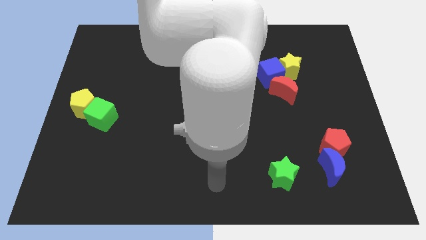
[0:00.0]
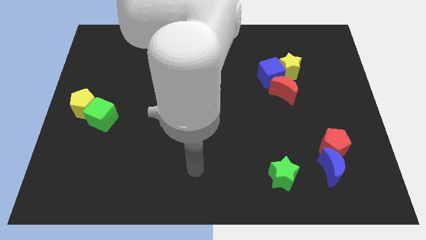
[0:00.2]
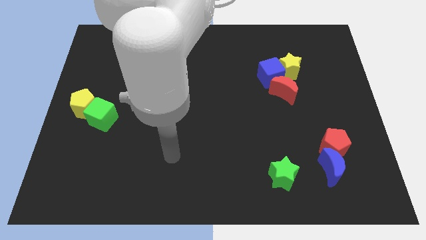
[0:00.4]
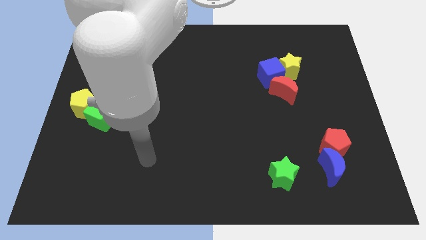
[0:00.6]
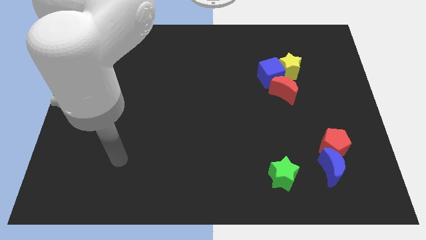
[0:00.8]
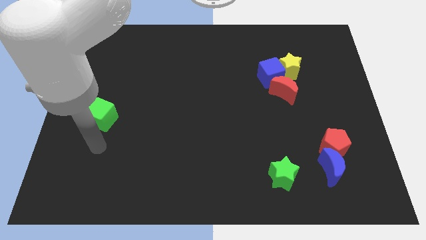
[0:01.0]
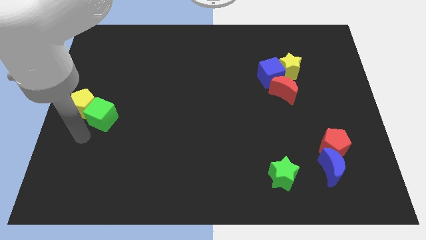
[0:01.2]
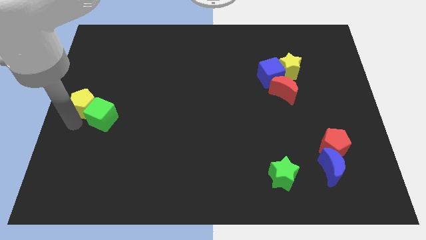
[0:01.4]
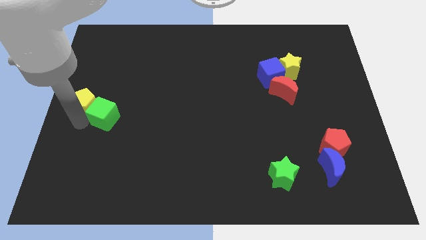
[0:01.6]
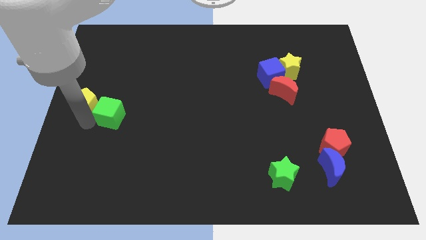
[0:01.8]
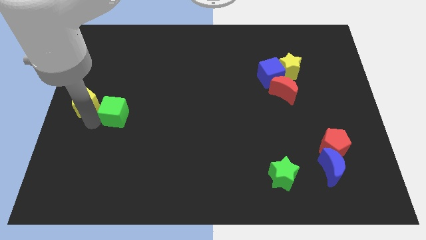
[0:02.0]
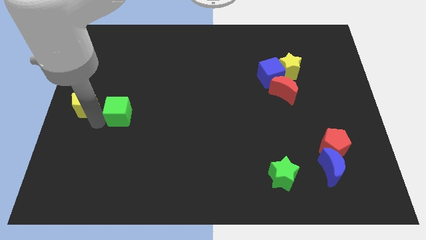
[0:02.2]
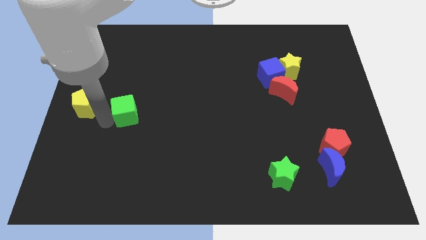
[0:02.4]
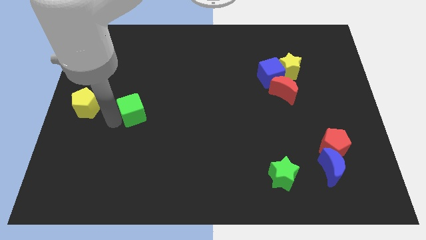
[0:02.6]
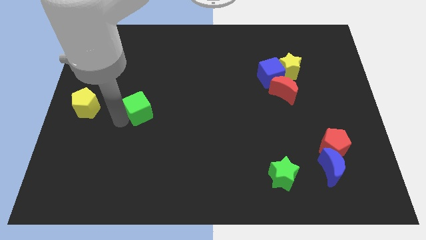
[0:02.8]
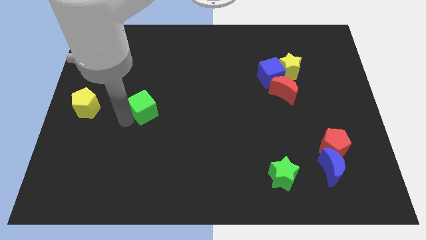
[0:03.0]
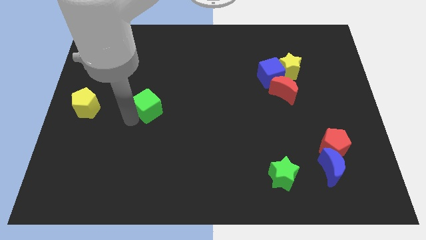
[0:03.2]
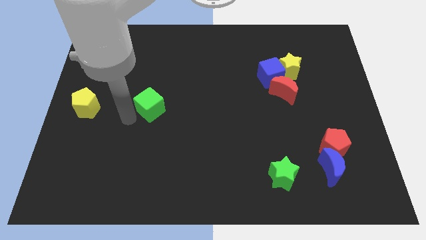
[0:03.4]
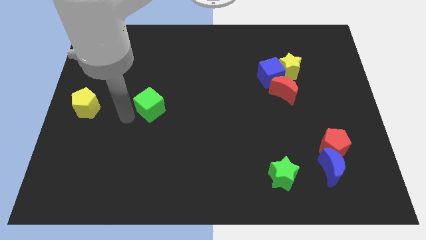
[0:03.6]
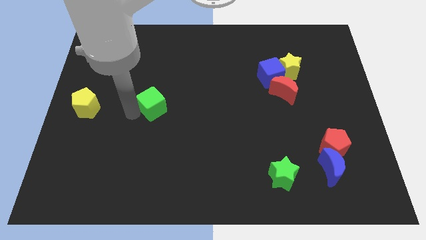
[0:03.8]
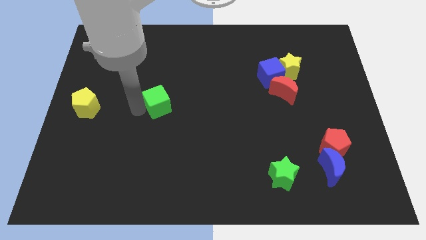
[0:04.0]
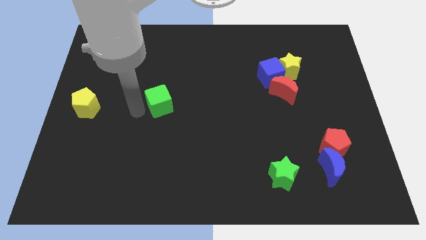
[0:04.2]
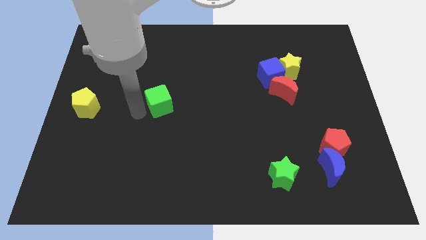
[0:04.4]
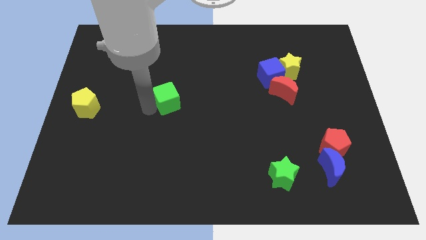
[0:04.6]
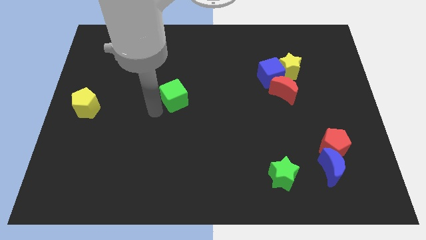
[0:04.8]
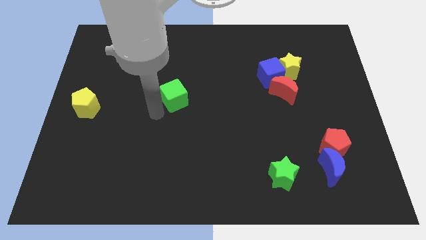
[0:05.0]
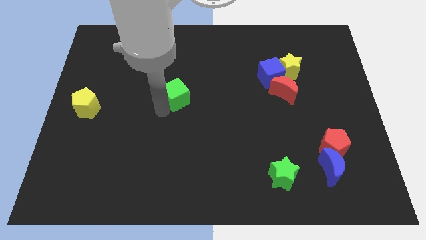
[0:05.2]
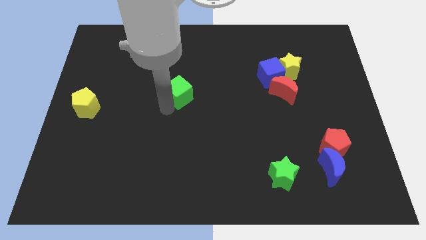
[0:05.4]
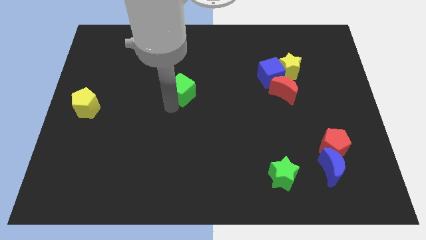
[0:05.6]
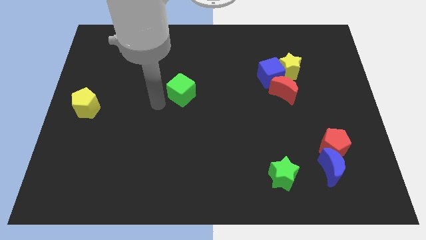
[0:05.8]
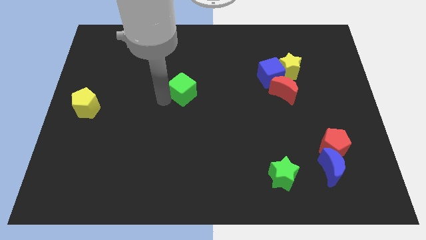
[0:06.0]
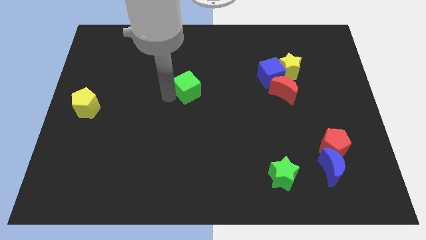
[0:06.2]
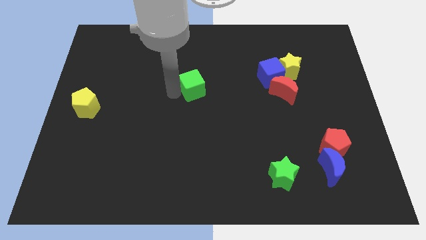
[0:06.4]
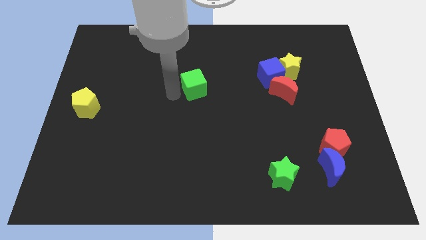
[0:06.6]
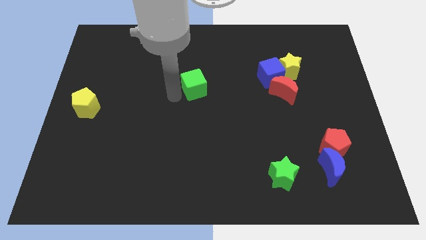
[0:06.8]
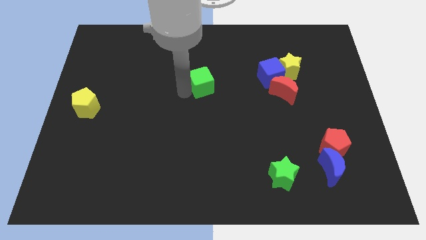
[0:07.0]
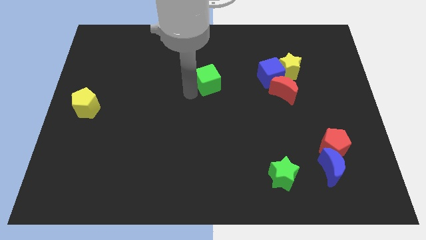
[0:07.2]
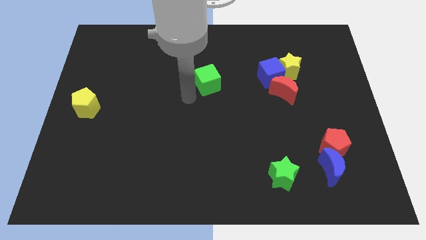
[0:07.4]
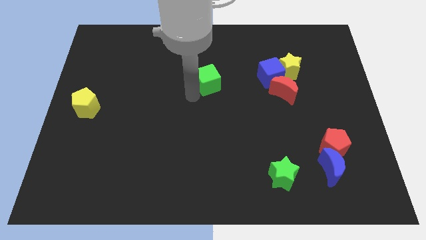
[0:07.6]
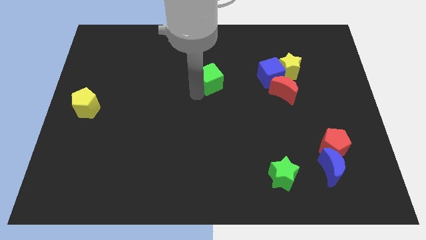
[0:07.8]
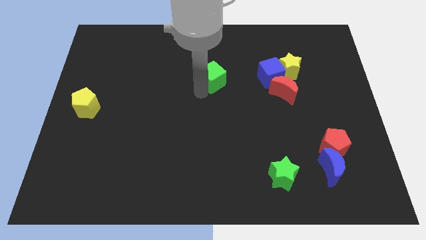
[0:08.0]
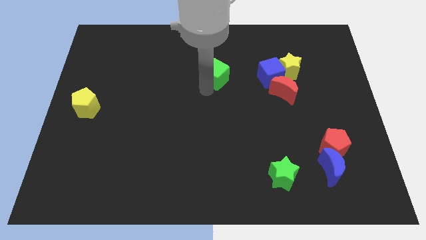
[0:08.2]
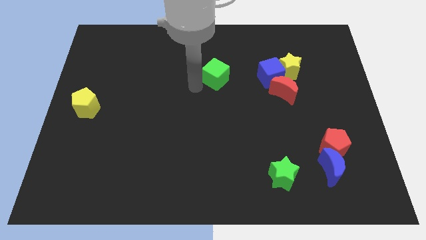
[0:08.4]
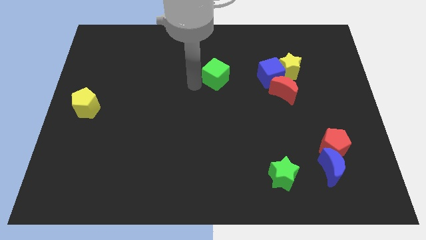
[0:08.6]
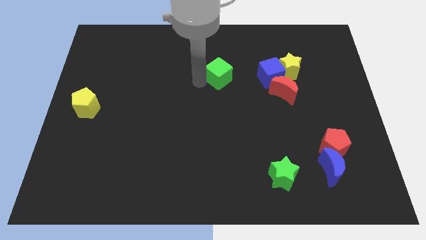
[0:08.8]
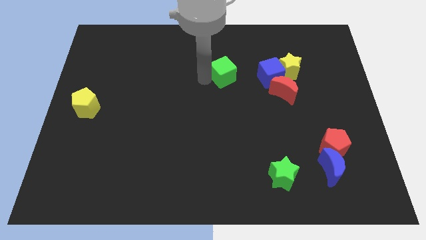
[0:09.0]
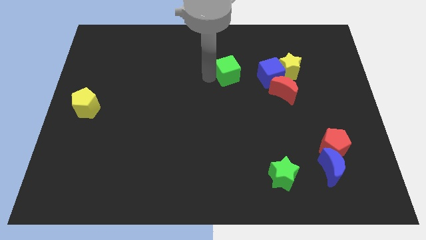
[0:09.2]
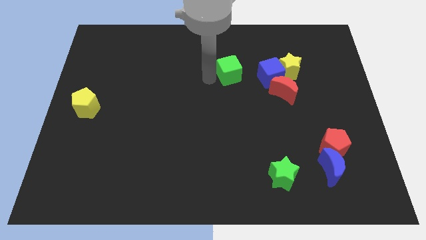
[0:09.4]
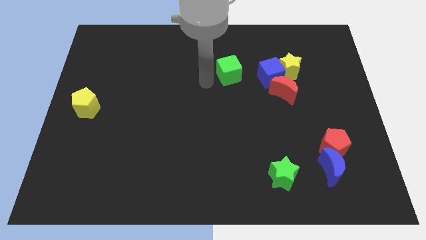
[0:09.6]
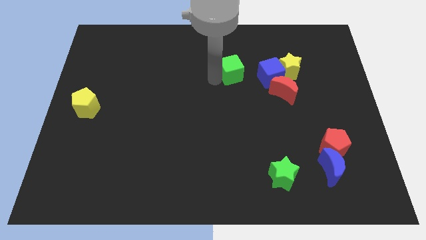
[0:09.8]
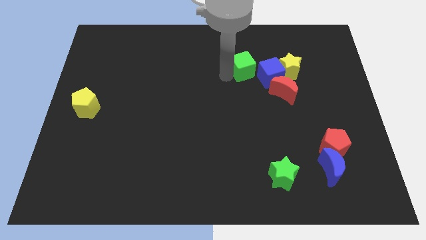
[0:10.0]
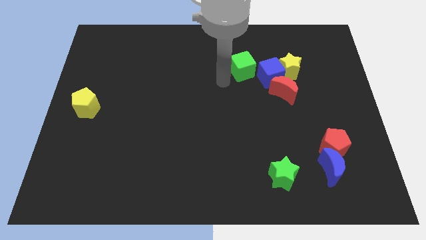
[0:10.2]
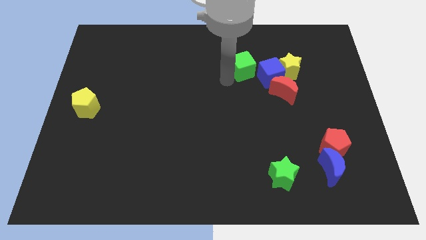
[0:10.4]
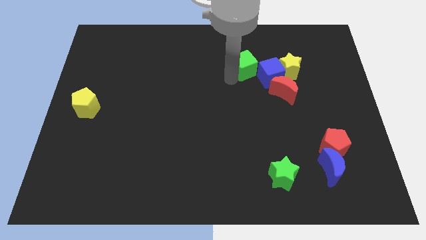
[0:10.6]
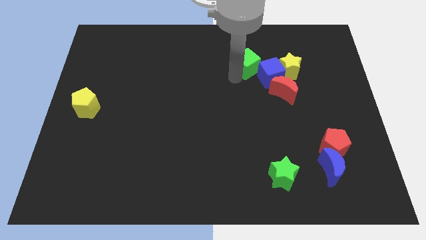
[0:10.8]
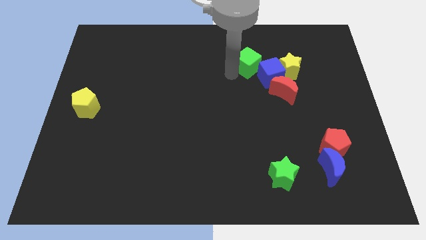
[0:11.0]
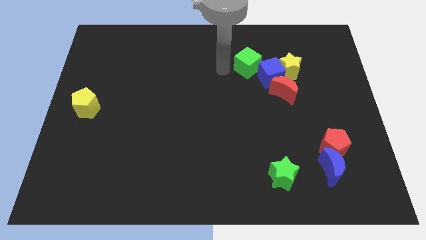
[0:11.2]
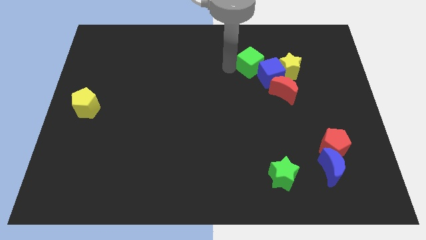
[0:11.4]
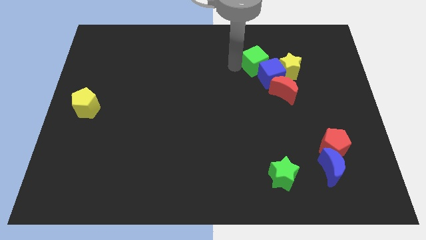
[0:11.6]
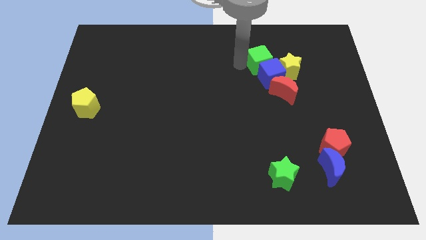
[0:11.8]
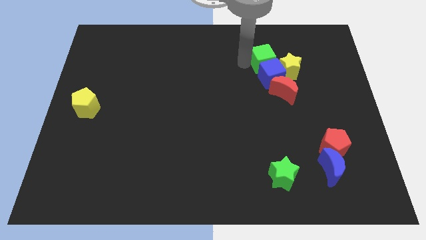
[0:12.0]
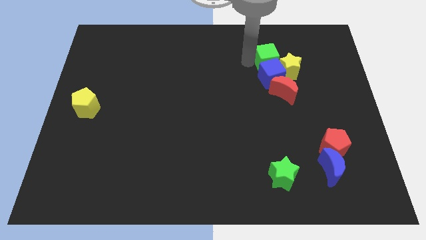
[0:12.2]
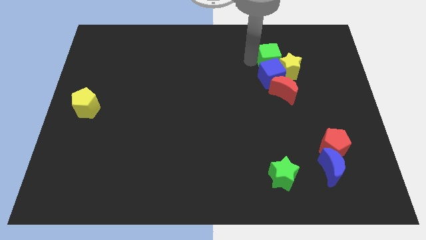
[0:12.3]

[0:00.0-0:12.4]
push the green cube to the yellow star

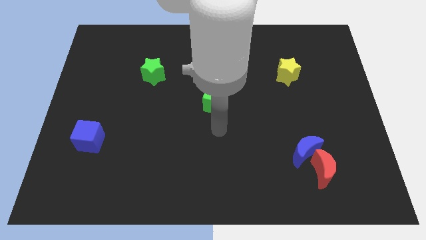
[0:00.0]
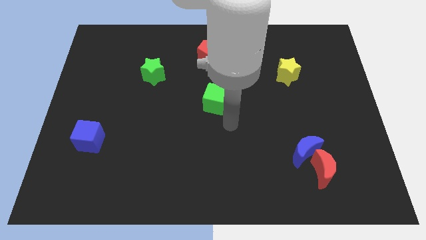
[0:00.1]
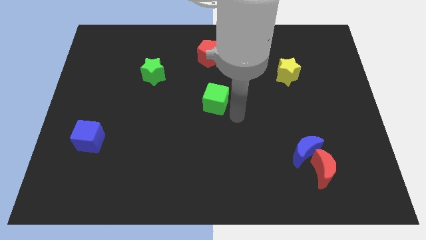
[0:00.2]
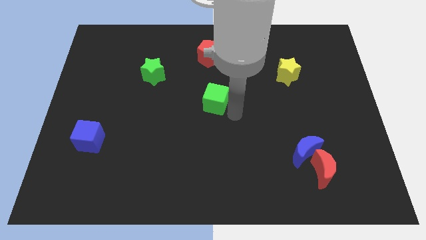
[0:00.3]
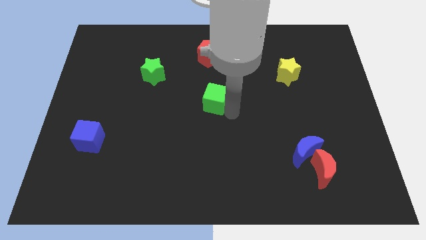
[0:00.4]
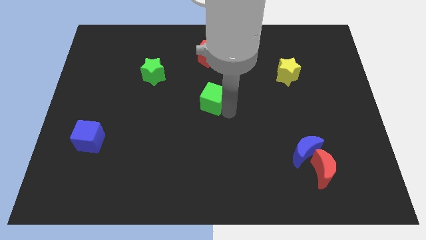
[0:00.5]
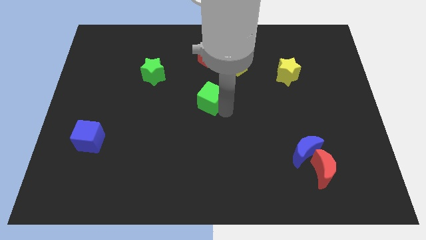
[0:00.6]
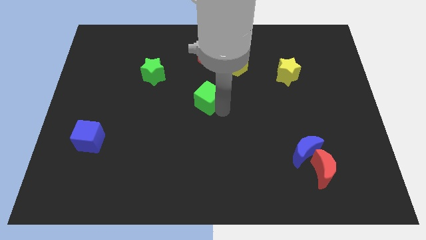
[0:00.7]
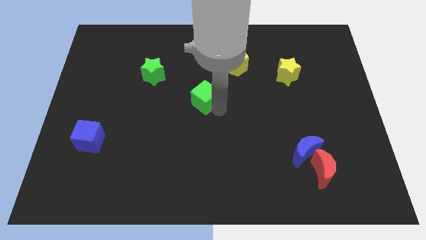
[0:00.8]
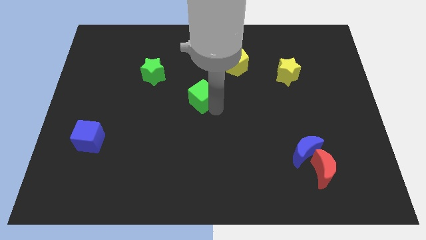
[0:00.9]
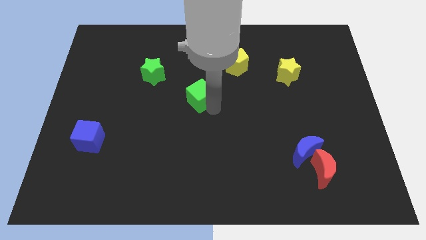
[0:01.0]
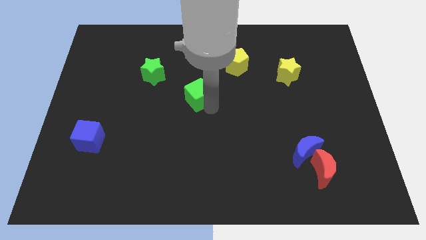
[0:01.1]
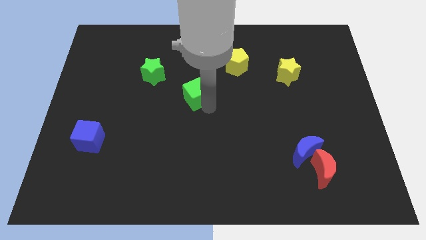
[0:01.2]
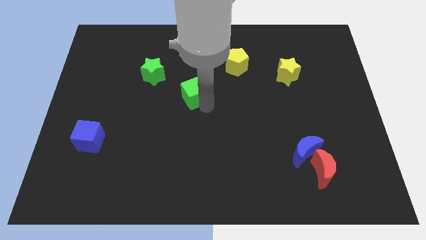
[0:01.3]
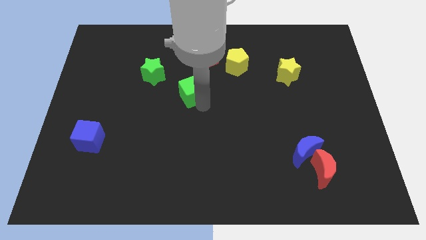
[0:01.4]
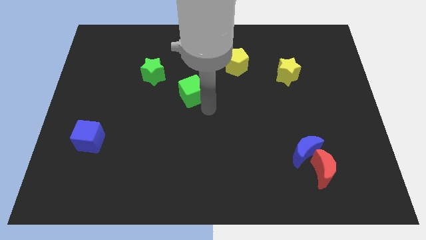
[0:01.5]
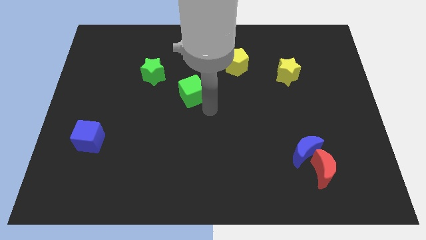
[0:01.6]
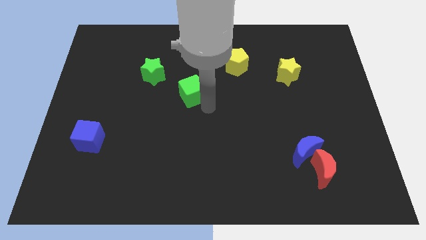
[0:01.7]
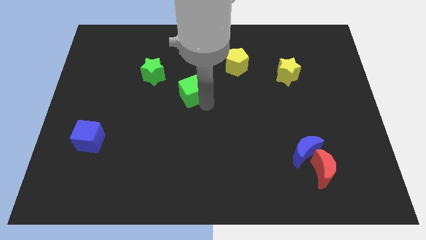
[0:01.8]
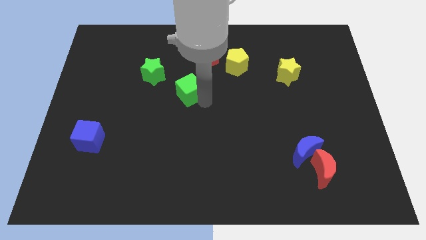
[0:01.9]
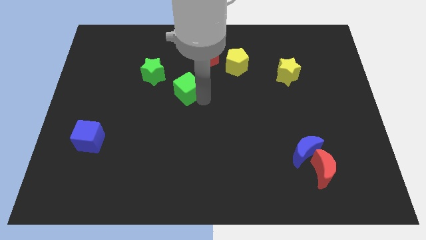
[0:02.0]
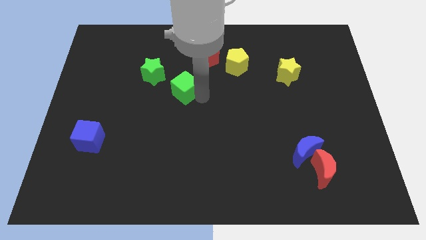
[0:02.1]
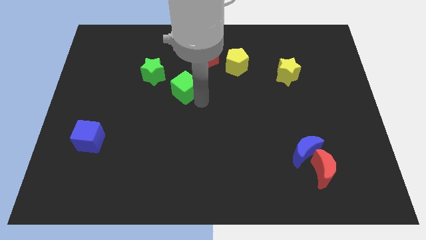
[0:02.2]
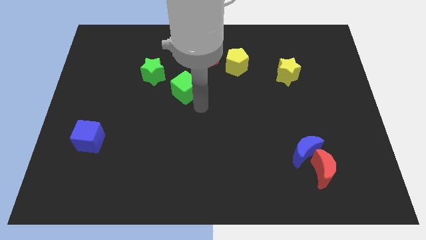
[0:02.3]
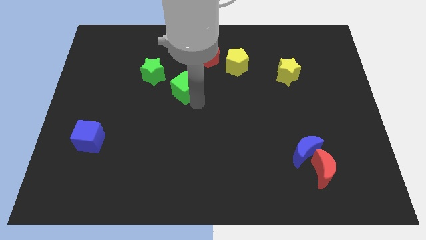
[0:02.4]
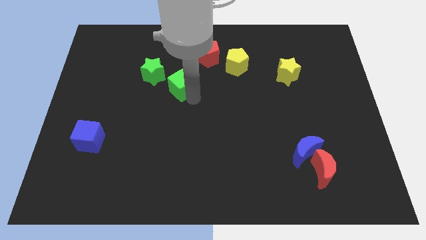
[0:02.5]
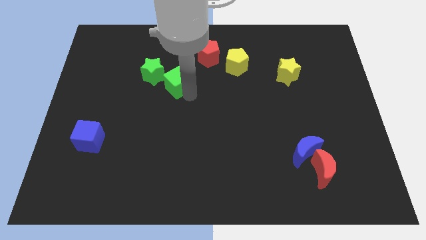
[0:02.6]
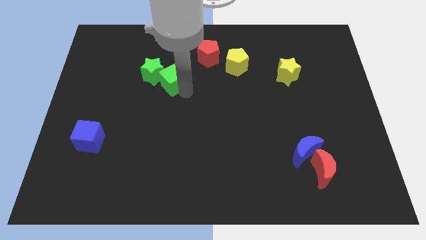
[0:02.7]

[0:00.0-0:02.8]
push the green cube towards the green star
